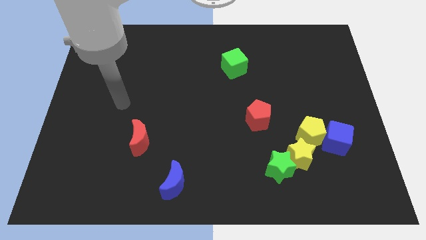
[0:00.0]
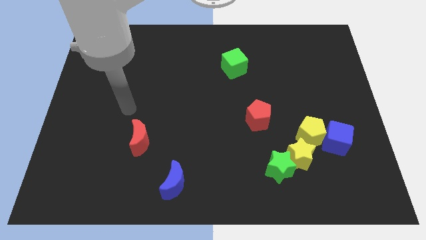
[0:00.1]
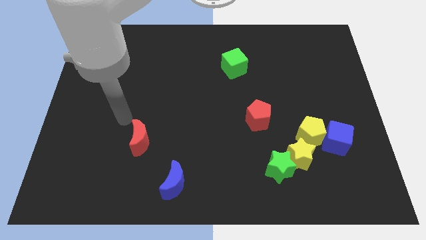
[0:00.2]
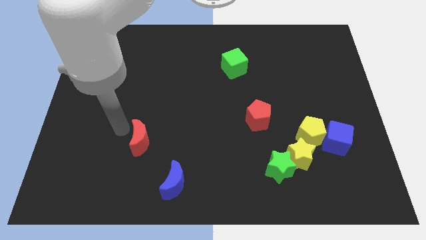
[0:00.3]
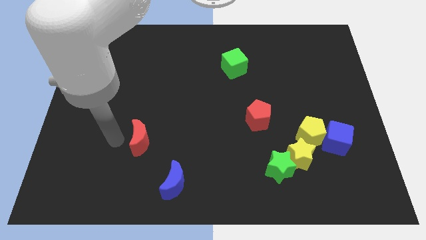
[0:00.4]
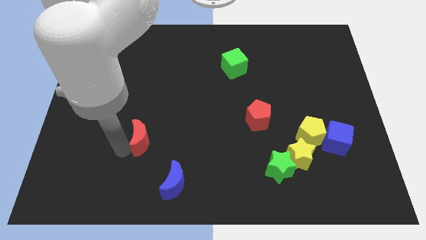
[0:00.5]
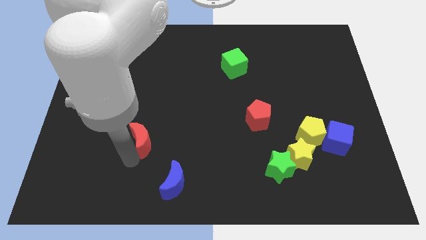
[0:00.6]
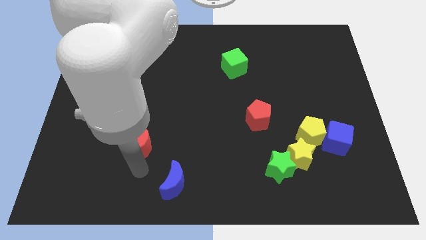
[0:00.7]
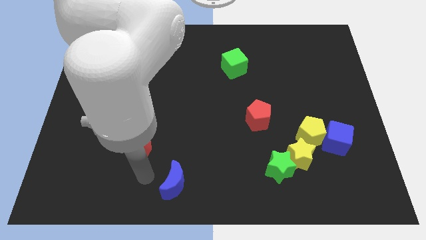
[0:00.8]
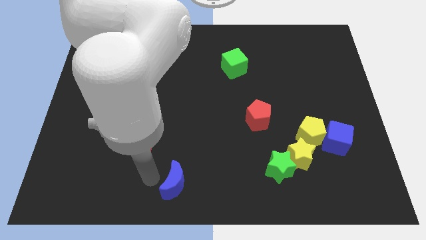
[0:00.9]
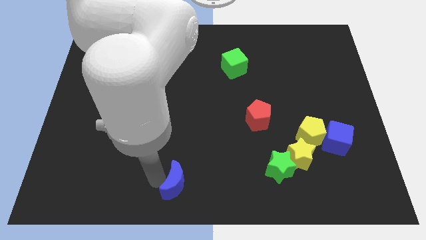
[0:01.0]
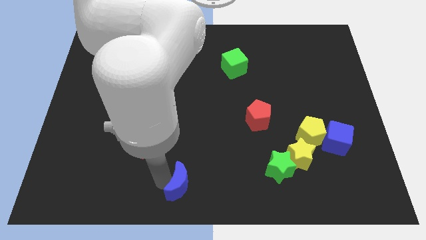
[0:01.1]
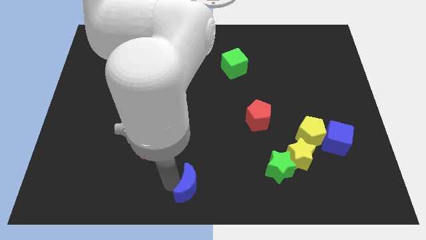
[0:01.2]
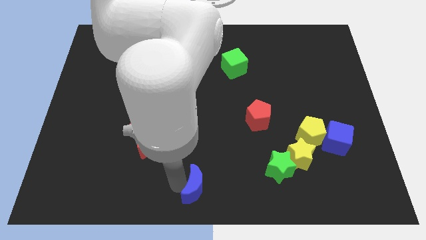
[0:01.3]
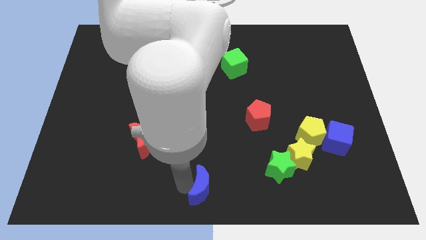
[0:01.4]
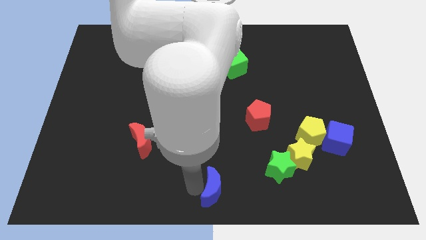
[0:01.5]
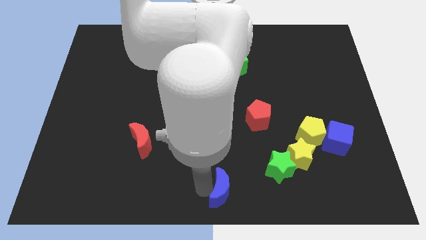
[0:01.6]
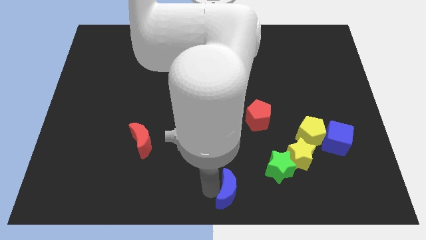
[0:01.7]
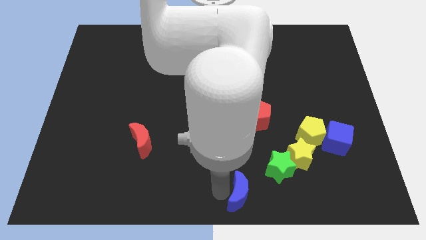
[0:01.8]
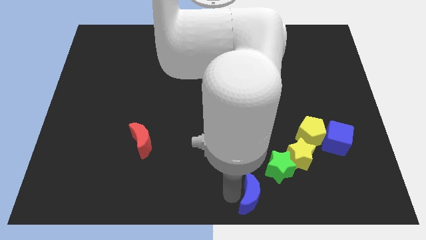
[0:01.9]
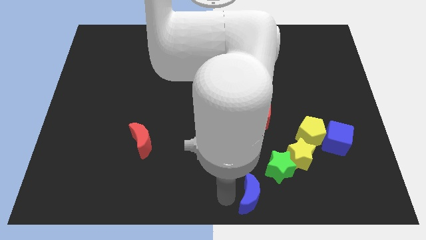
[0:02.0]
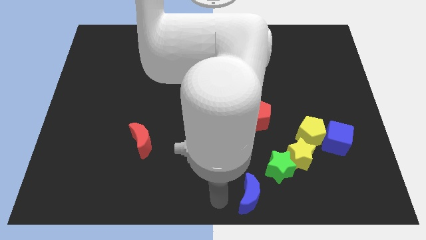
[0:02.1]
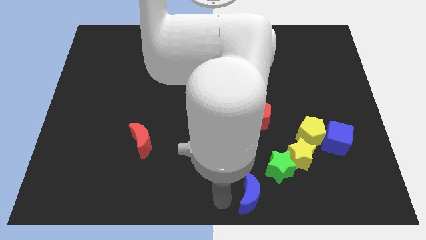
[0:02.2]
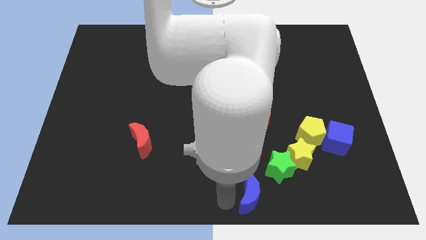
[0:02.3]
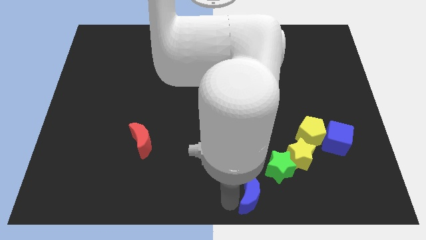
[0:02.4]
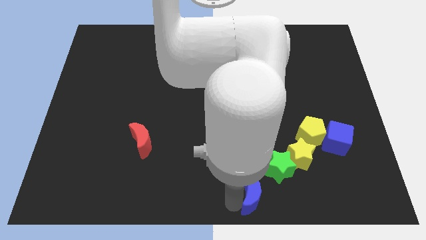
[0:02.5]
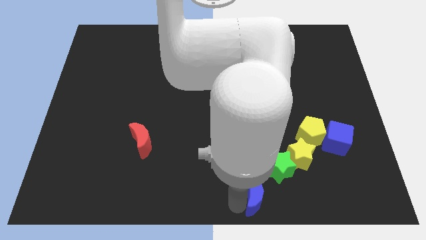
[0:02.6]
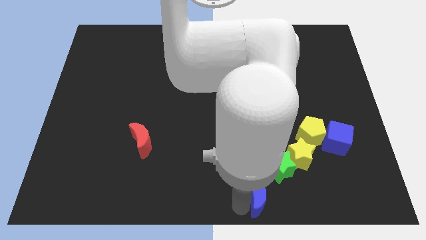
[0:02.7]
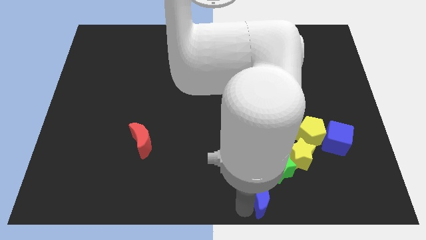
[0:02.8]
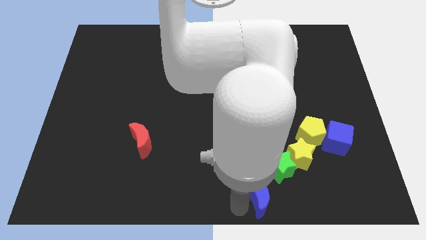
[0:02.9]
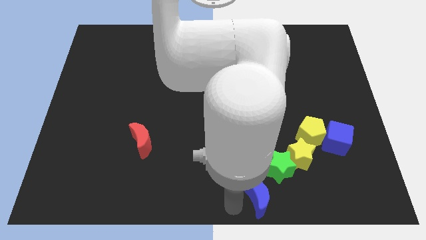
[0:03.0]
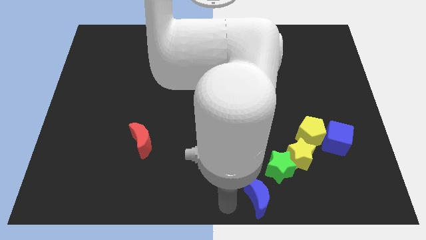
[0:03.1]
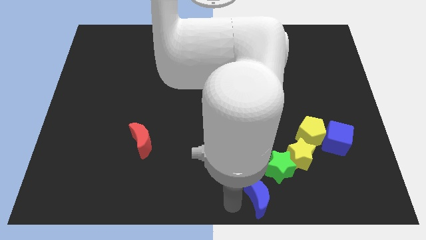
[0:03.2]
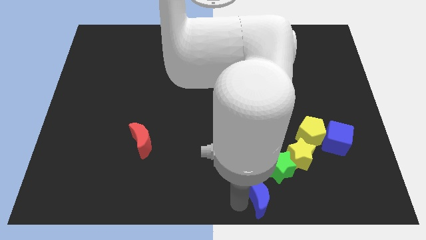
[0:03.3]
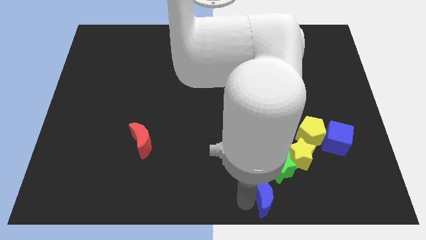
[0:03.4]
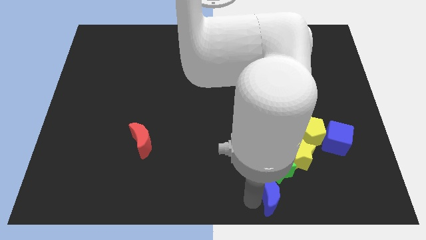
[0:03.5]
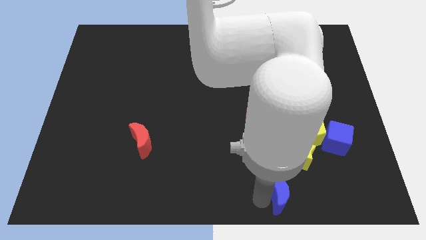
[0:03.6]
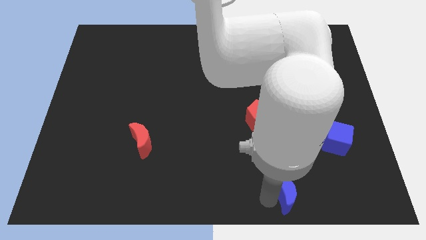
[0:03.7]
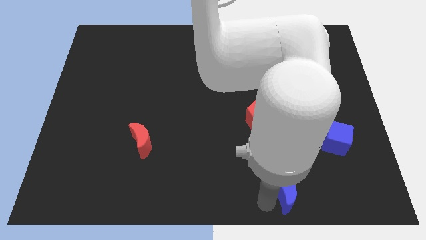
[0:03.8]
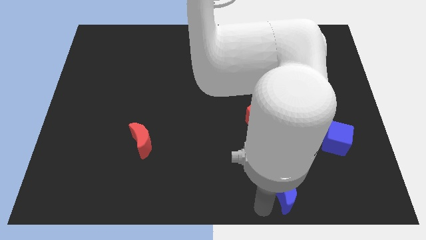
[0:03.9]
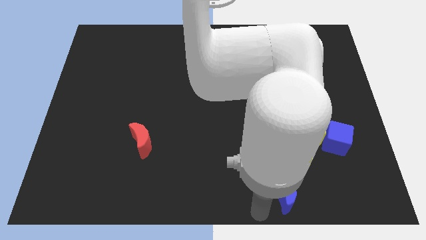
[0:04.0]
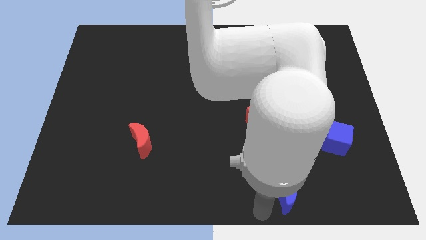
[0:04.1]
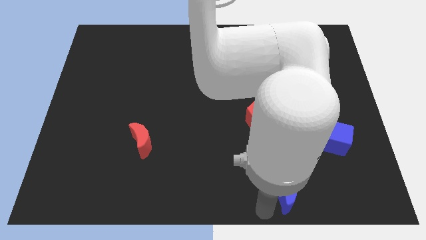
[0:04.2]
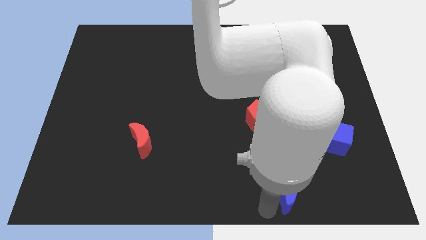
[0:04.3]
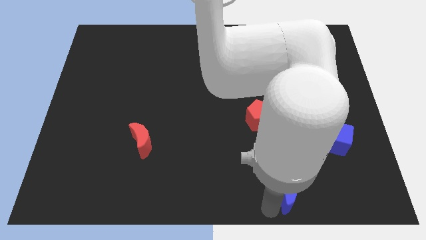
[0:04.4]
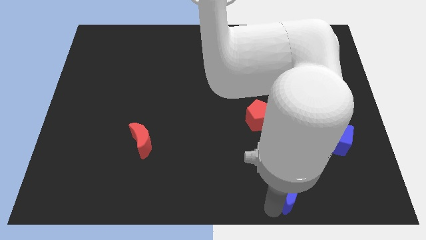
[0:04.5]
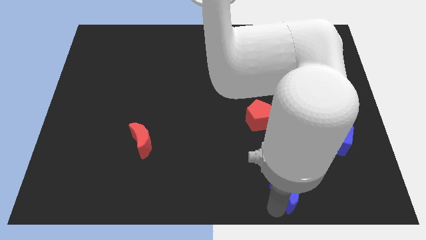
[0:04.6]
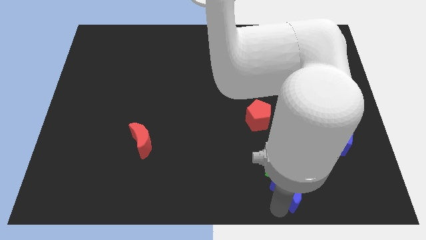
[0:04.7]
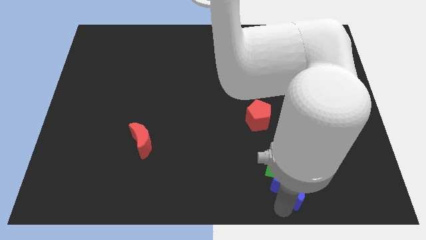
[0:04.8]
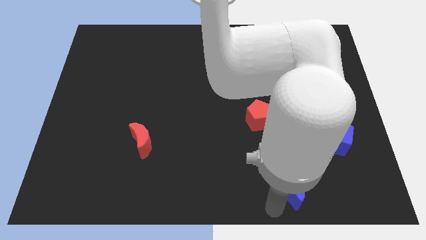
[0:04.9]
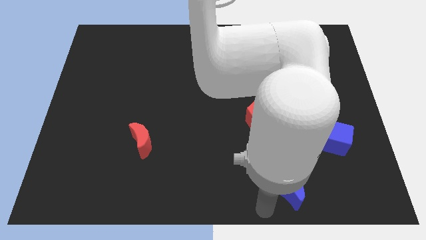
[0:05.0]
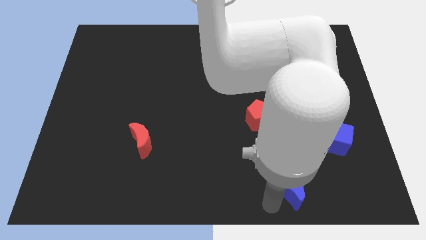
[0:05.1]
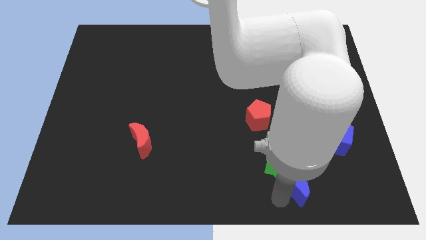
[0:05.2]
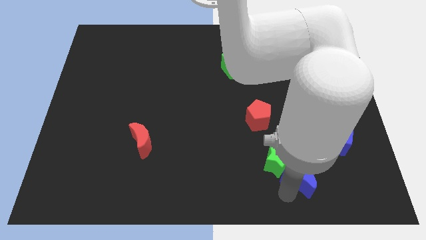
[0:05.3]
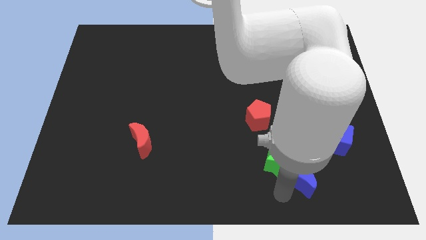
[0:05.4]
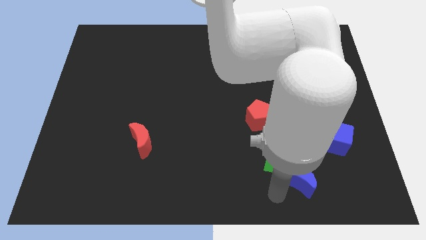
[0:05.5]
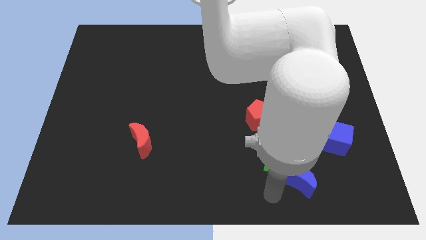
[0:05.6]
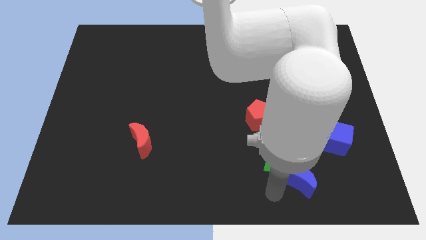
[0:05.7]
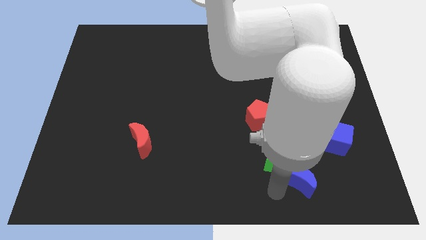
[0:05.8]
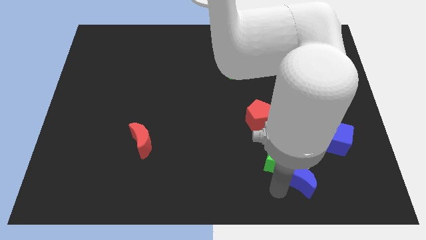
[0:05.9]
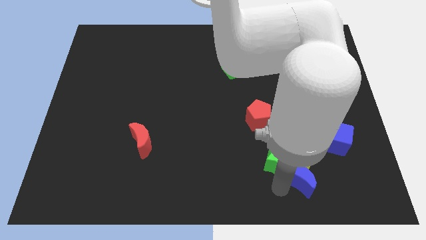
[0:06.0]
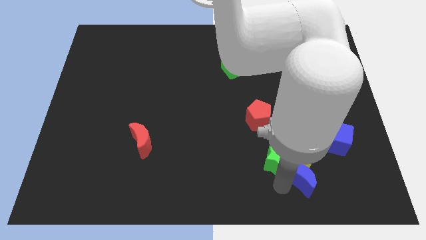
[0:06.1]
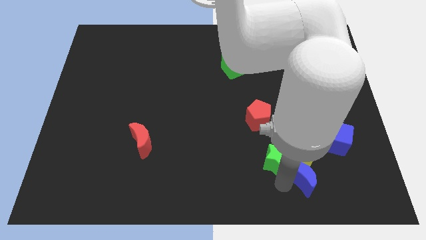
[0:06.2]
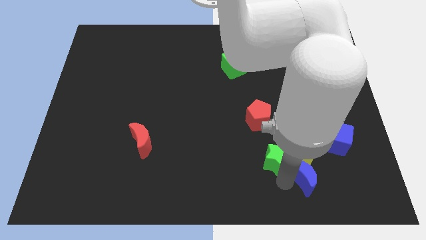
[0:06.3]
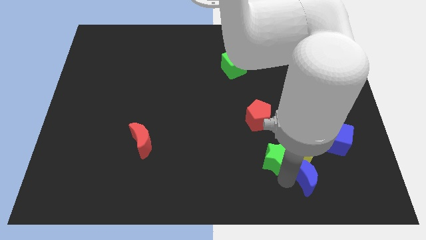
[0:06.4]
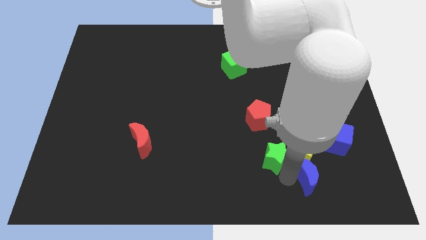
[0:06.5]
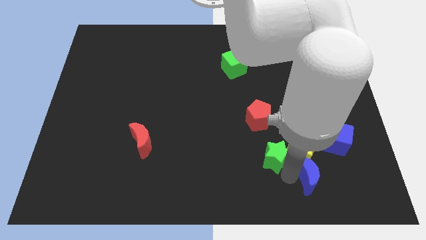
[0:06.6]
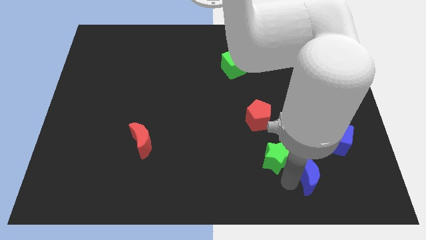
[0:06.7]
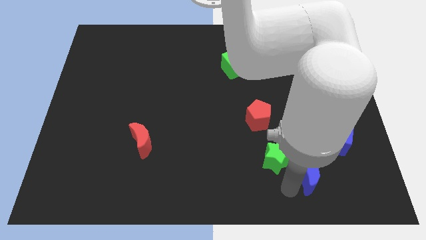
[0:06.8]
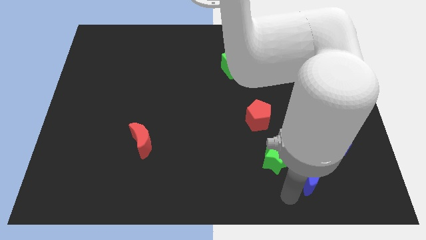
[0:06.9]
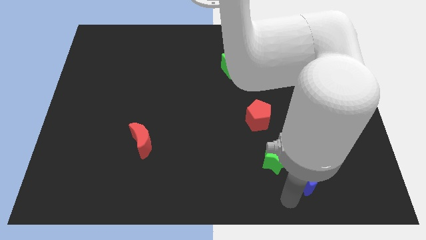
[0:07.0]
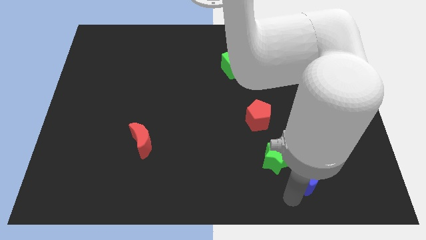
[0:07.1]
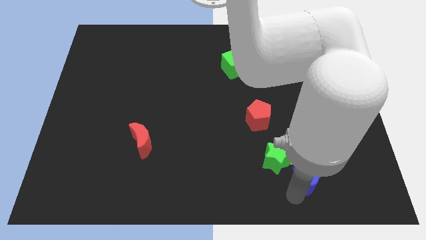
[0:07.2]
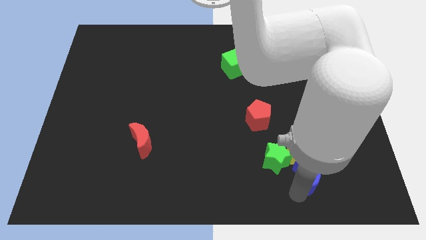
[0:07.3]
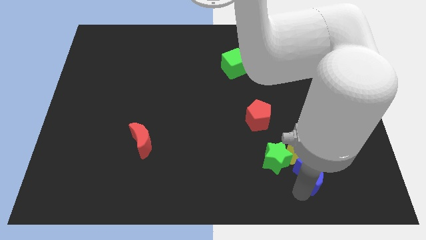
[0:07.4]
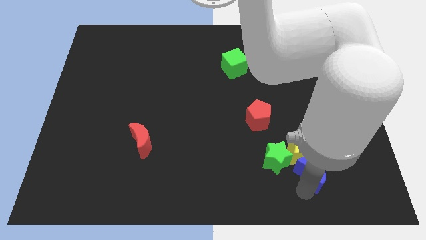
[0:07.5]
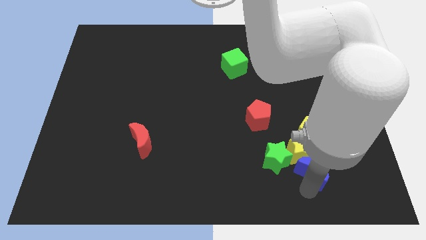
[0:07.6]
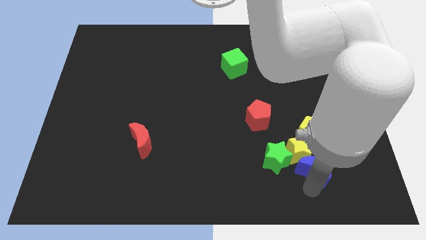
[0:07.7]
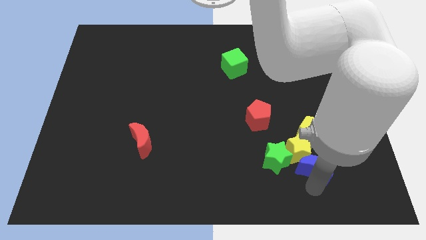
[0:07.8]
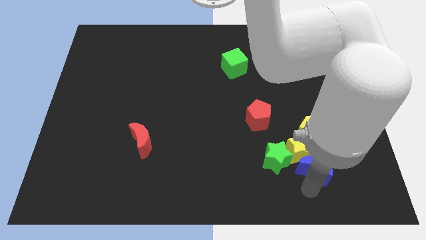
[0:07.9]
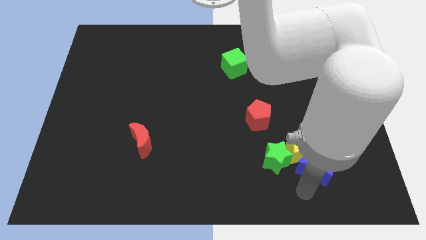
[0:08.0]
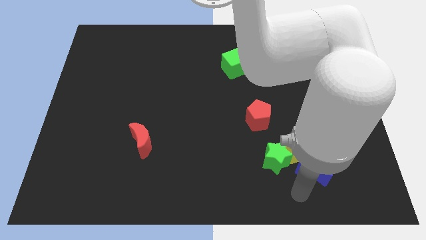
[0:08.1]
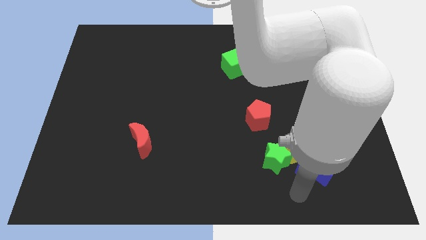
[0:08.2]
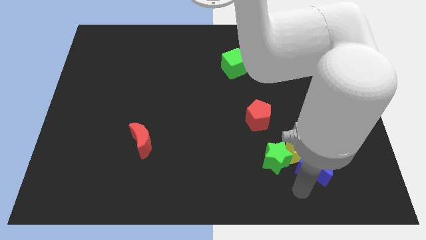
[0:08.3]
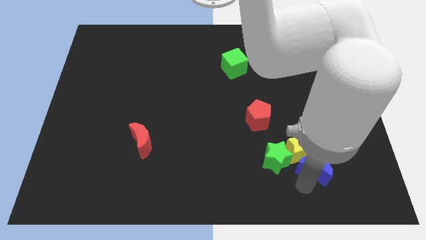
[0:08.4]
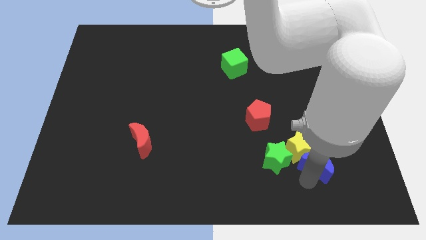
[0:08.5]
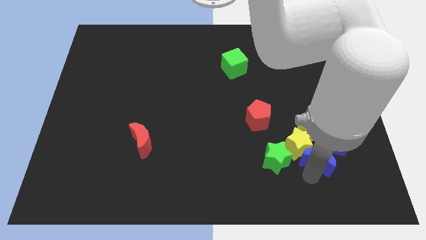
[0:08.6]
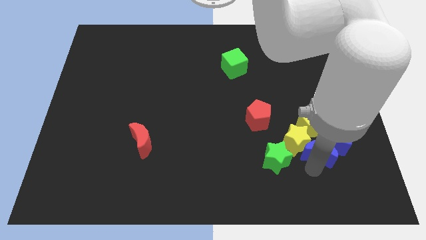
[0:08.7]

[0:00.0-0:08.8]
move the blue moon towards the blue cube
